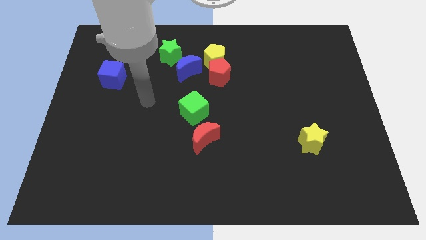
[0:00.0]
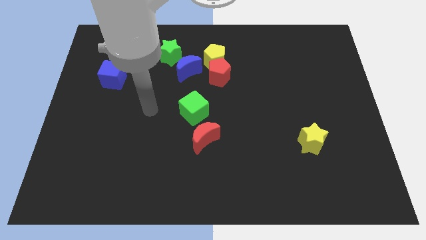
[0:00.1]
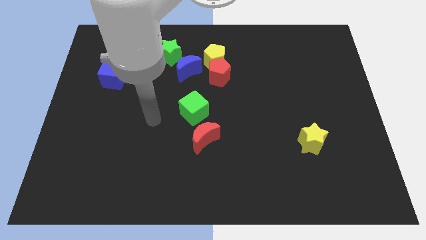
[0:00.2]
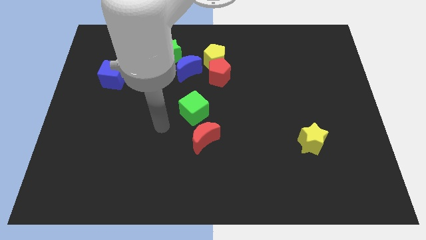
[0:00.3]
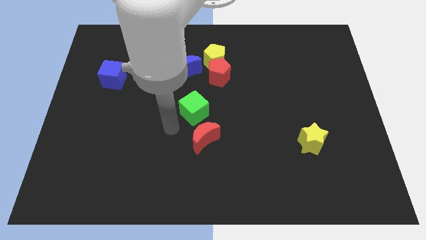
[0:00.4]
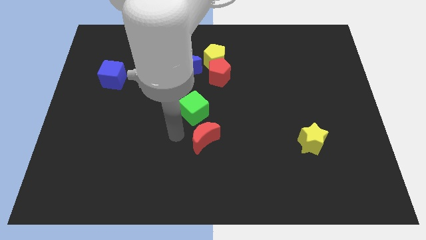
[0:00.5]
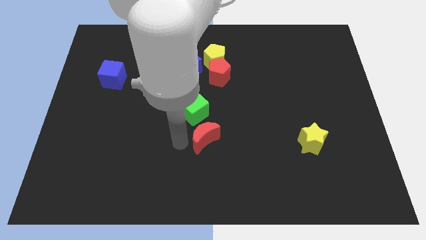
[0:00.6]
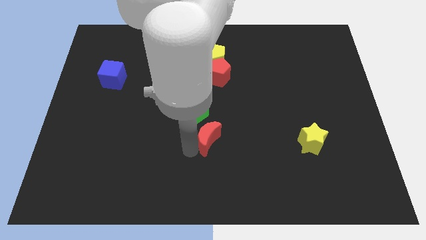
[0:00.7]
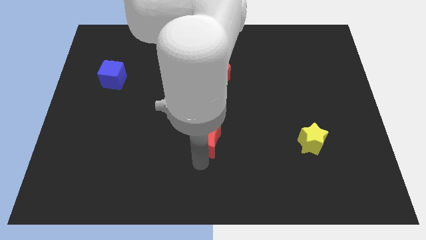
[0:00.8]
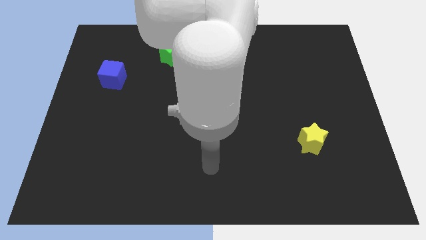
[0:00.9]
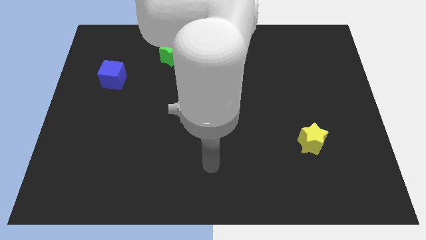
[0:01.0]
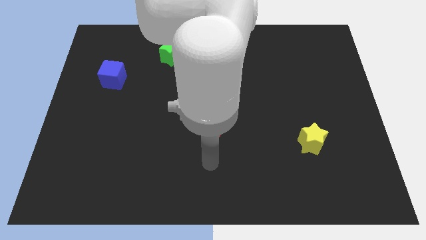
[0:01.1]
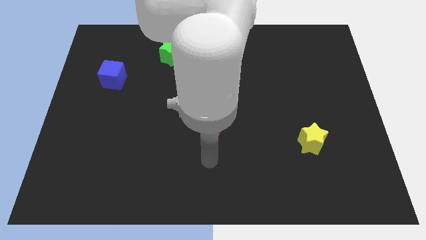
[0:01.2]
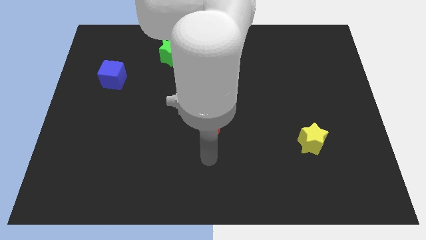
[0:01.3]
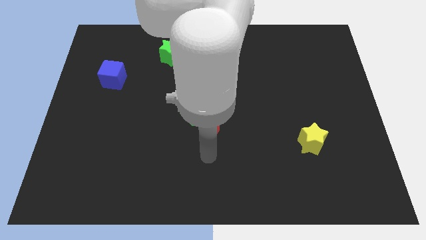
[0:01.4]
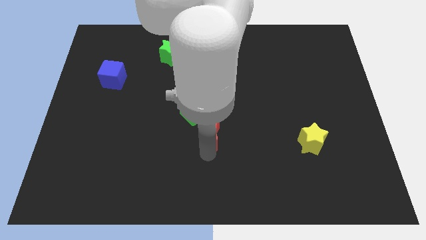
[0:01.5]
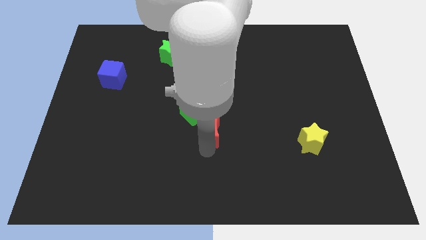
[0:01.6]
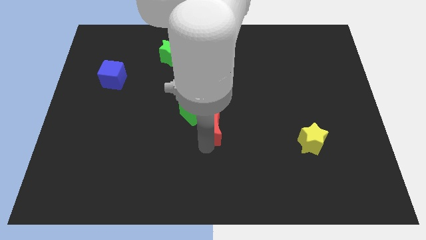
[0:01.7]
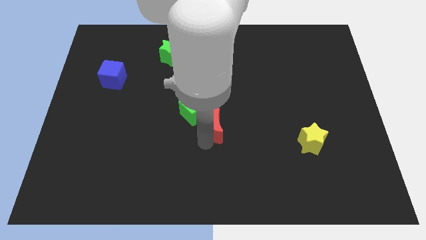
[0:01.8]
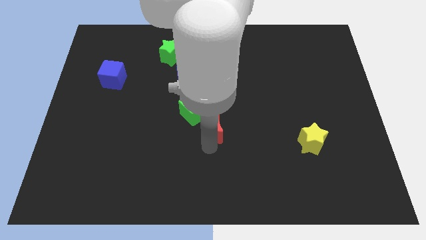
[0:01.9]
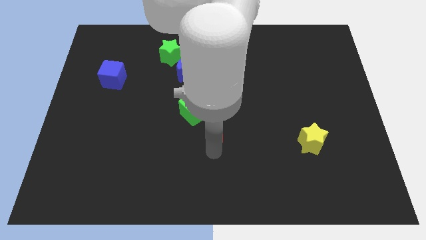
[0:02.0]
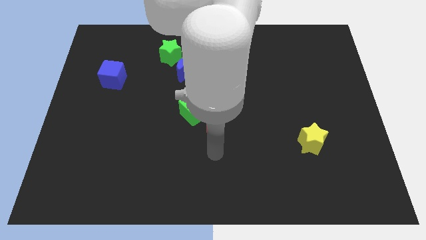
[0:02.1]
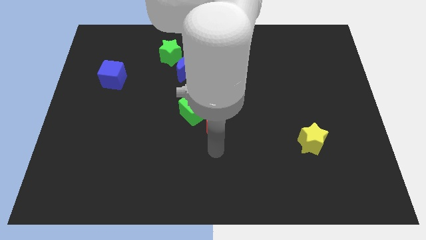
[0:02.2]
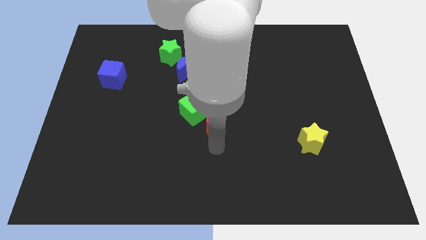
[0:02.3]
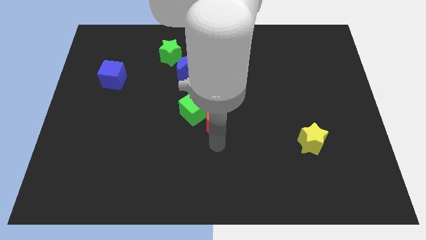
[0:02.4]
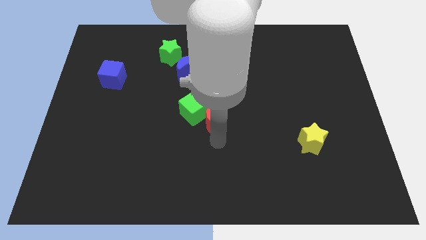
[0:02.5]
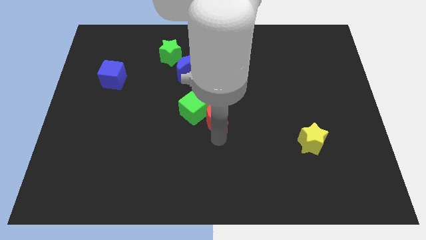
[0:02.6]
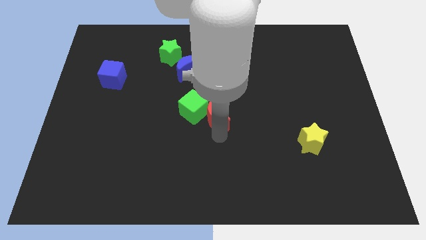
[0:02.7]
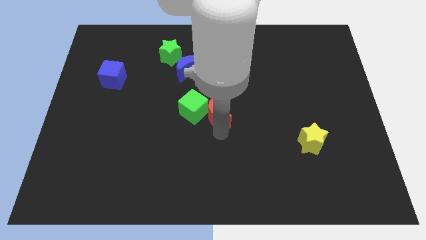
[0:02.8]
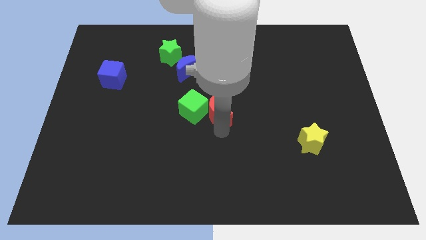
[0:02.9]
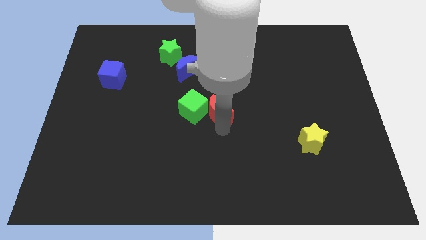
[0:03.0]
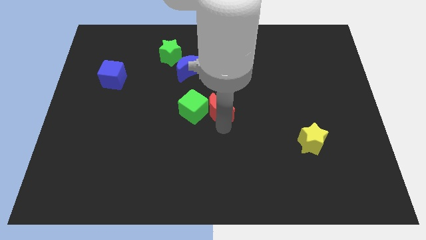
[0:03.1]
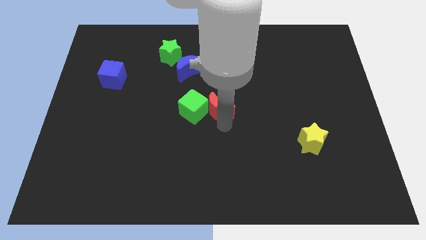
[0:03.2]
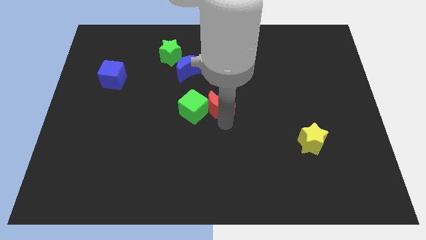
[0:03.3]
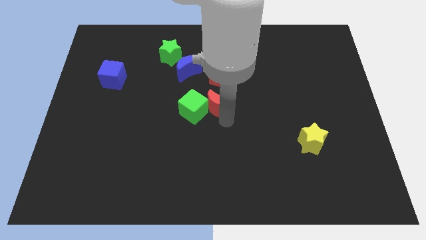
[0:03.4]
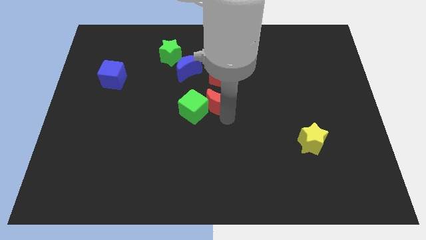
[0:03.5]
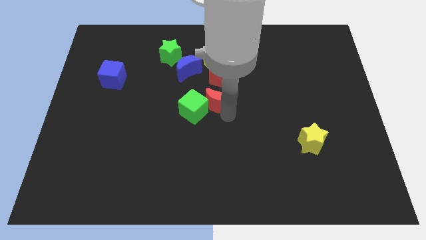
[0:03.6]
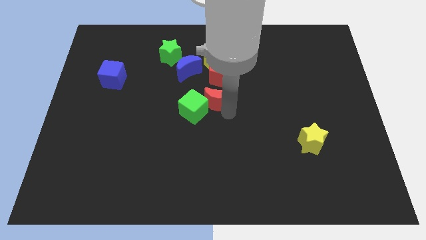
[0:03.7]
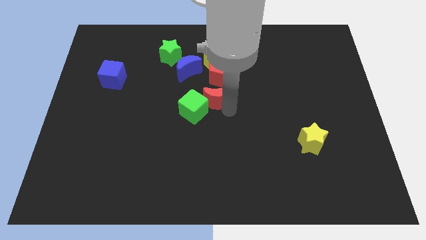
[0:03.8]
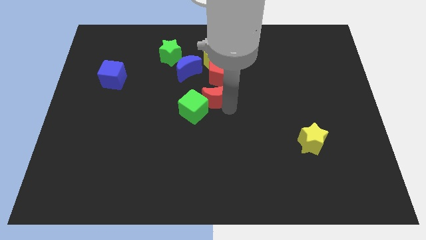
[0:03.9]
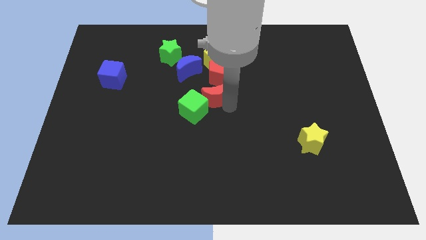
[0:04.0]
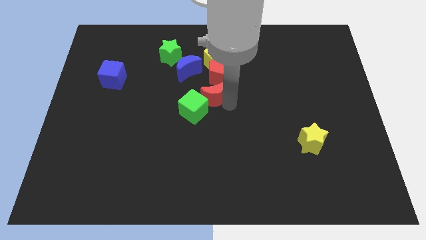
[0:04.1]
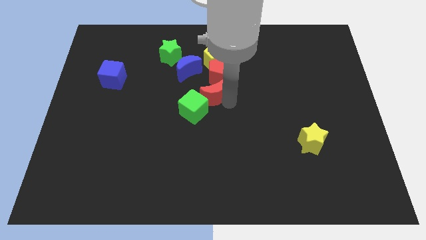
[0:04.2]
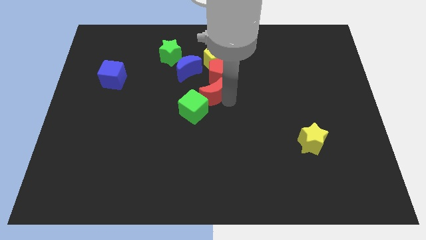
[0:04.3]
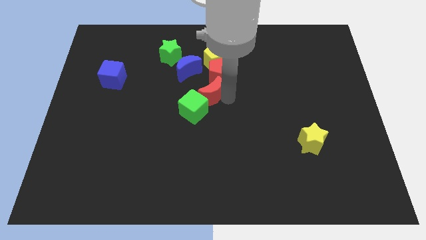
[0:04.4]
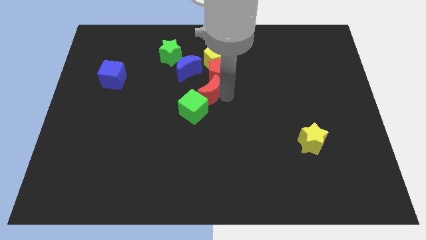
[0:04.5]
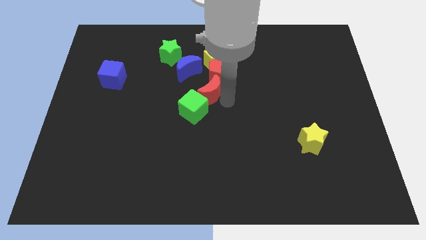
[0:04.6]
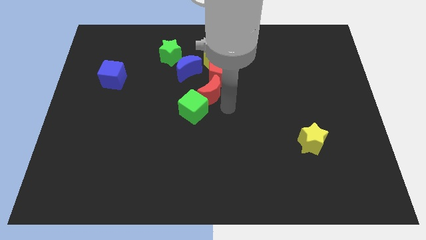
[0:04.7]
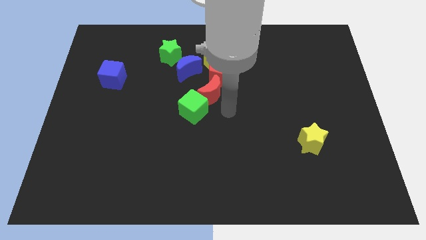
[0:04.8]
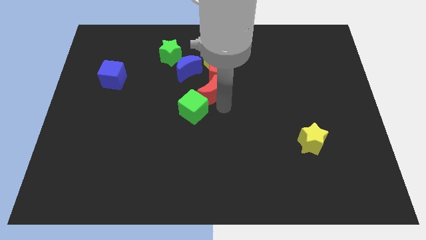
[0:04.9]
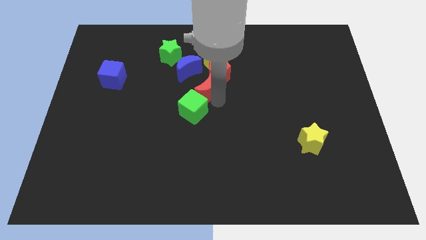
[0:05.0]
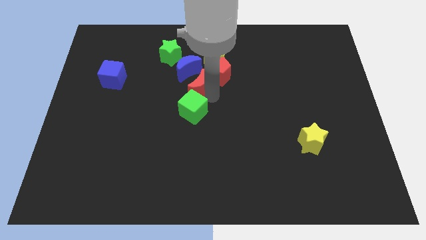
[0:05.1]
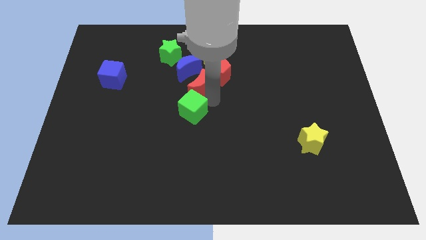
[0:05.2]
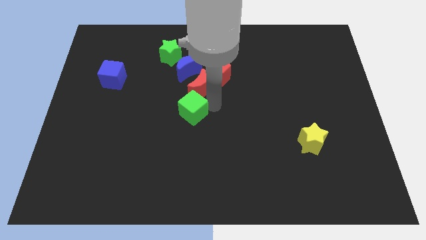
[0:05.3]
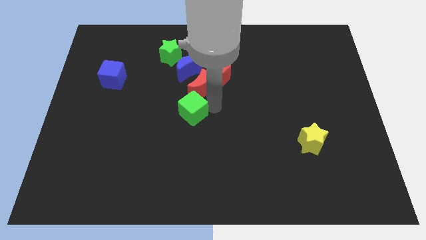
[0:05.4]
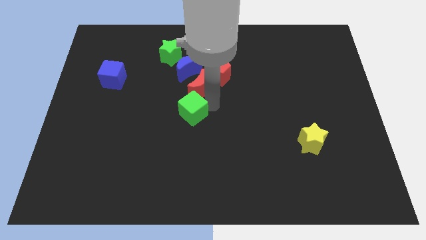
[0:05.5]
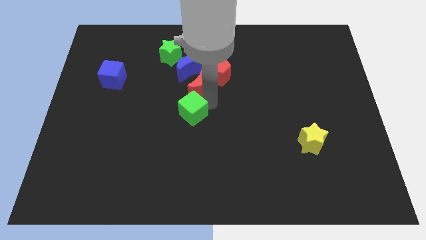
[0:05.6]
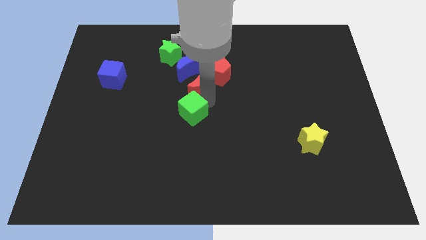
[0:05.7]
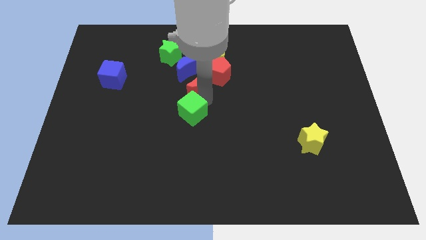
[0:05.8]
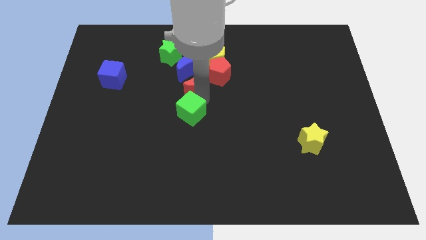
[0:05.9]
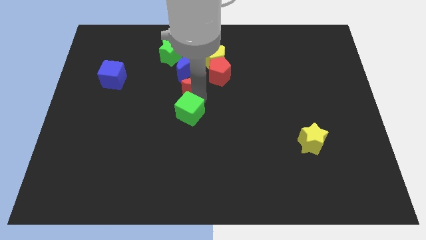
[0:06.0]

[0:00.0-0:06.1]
slide the red moon close to the blue moon

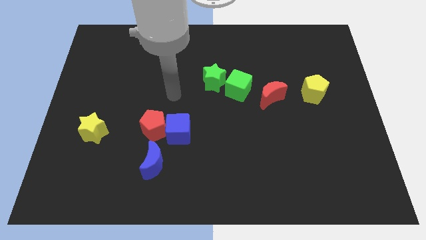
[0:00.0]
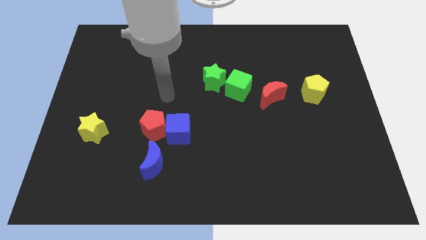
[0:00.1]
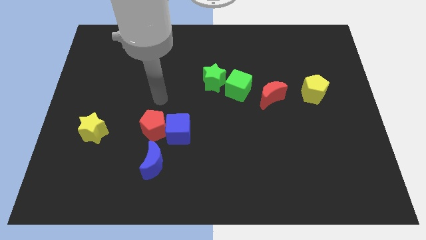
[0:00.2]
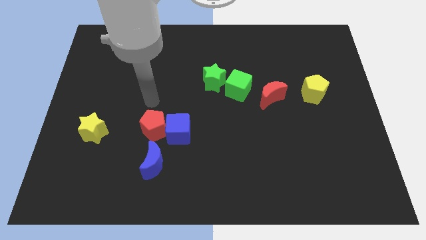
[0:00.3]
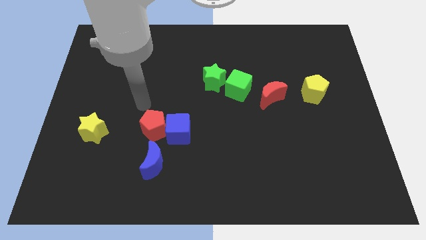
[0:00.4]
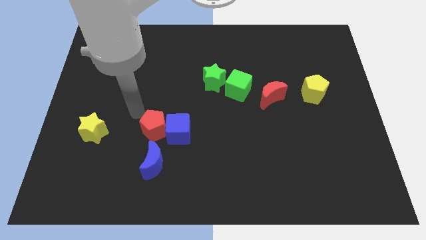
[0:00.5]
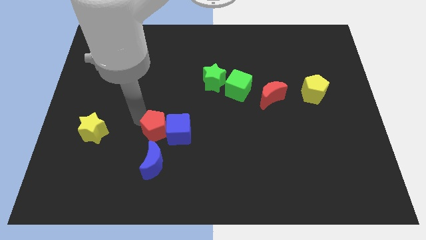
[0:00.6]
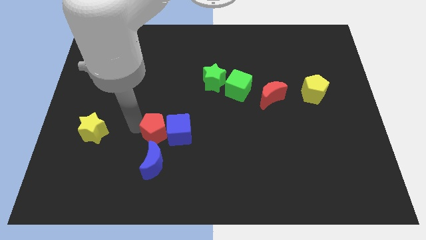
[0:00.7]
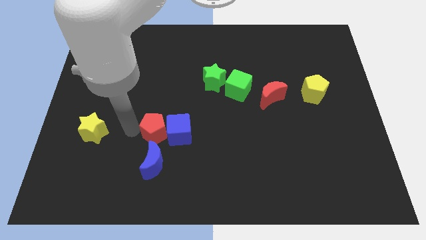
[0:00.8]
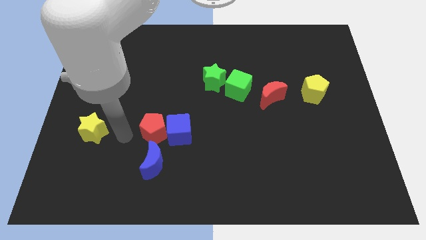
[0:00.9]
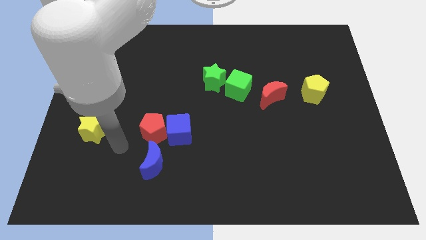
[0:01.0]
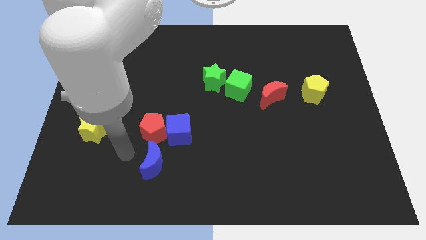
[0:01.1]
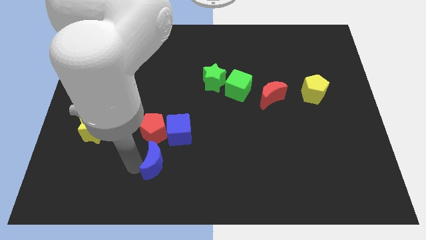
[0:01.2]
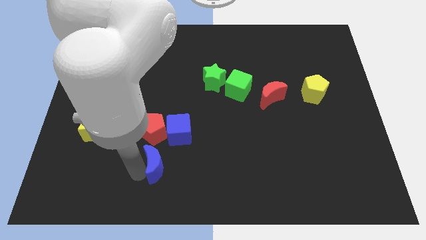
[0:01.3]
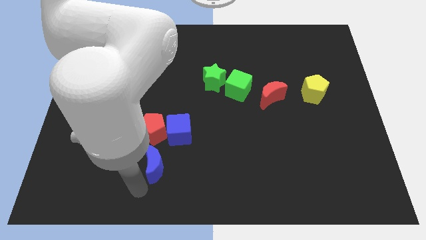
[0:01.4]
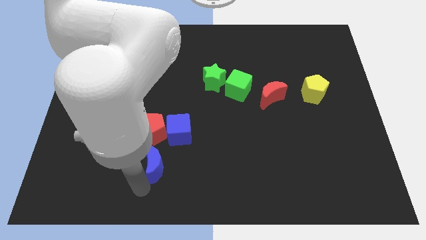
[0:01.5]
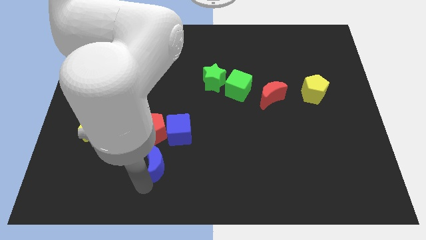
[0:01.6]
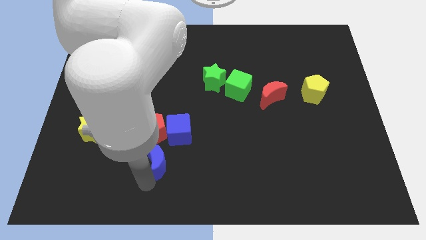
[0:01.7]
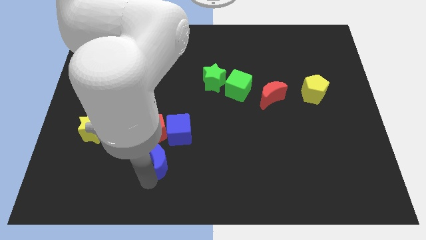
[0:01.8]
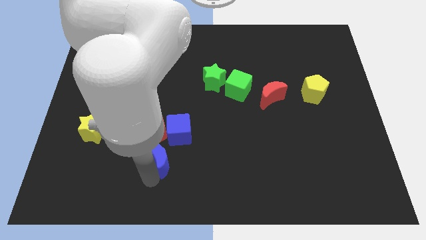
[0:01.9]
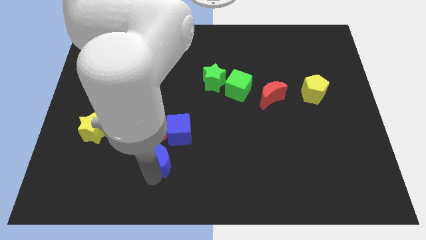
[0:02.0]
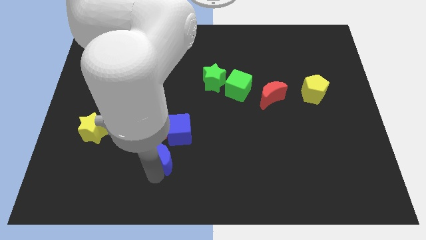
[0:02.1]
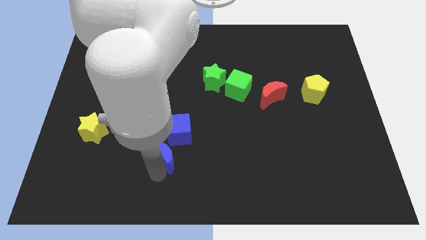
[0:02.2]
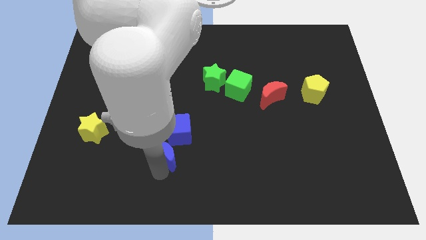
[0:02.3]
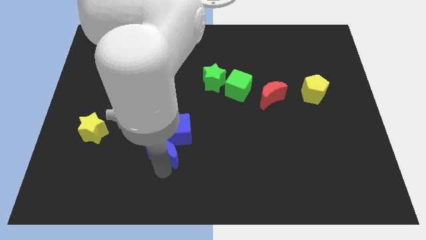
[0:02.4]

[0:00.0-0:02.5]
slide the blue moon next to the blue cube
